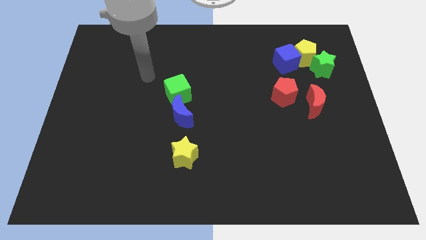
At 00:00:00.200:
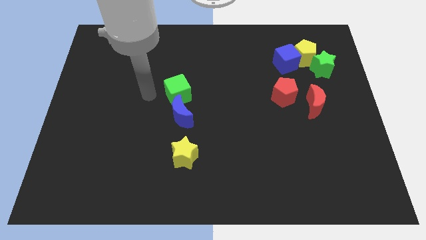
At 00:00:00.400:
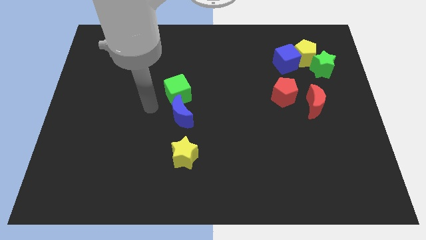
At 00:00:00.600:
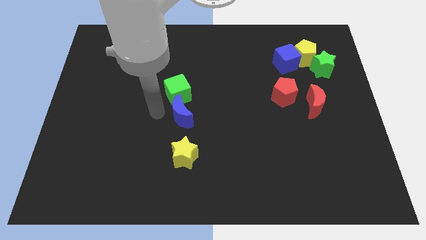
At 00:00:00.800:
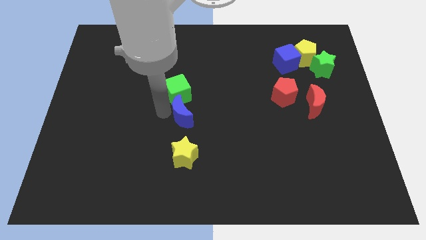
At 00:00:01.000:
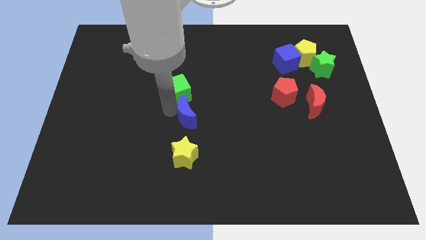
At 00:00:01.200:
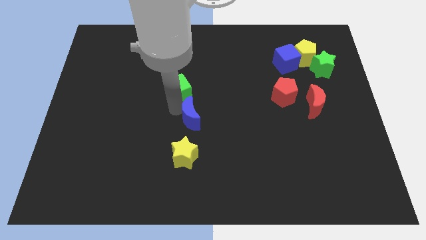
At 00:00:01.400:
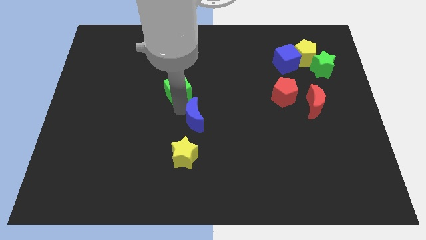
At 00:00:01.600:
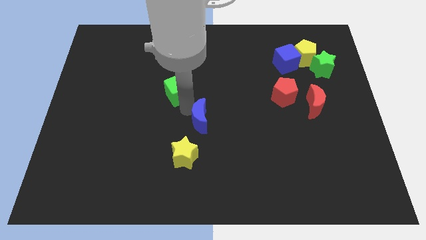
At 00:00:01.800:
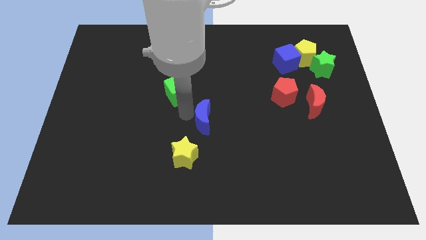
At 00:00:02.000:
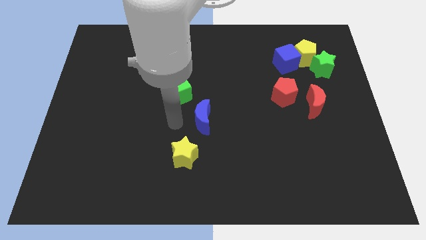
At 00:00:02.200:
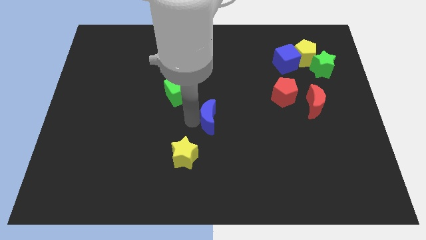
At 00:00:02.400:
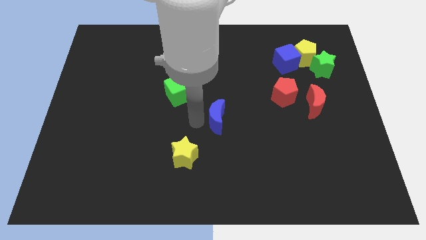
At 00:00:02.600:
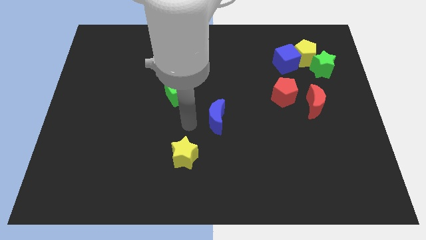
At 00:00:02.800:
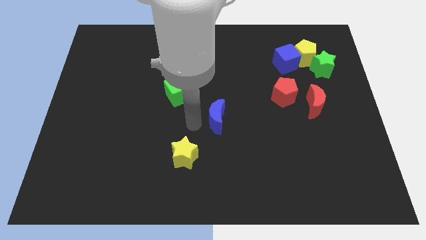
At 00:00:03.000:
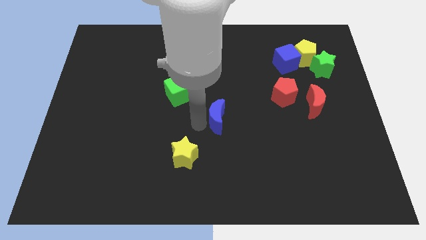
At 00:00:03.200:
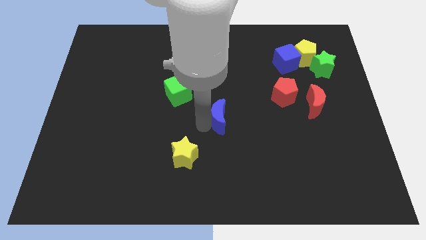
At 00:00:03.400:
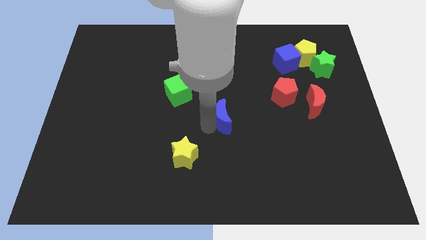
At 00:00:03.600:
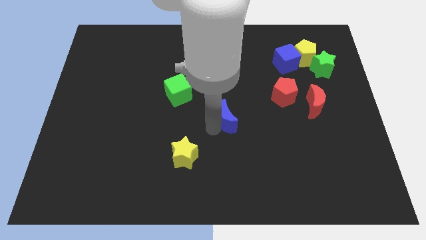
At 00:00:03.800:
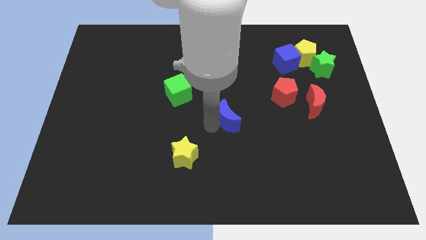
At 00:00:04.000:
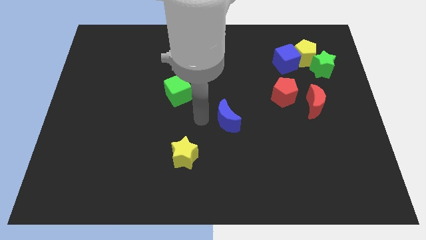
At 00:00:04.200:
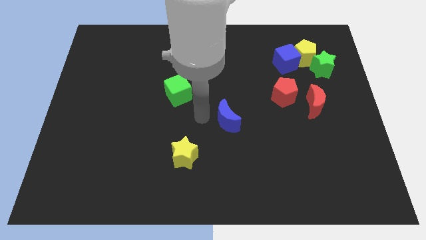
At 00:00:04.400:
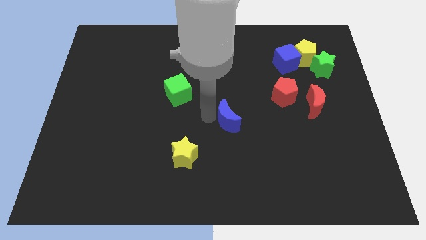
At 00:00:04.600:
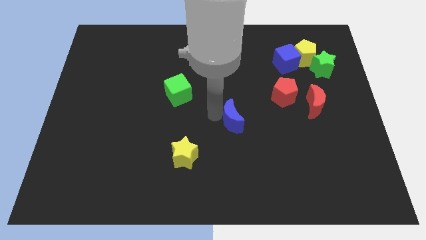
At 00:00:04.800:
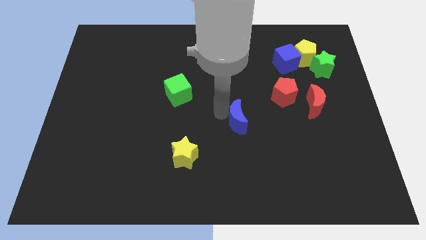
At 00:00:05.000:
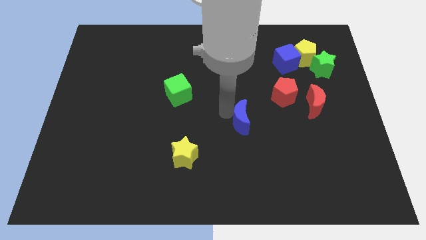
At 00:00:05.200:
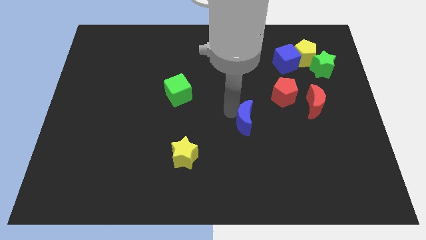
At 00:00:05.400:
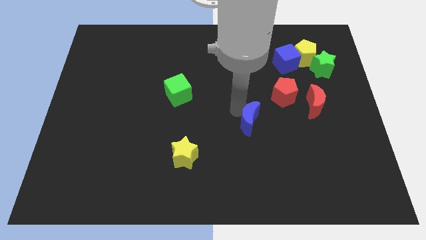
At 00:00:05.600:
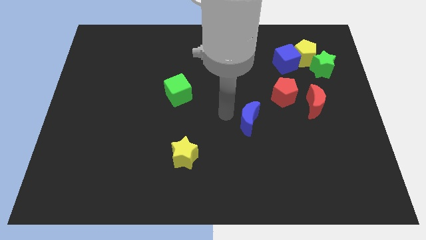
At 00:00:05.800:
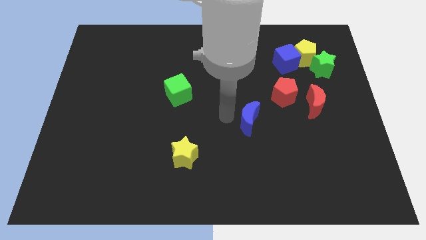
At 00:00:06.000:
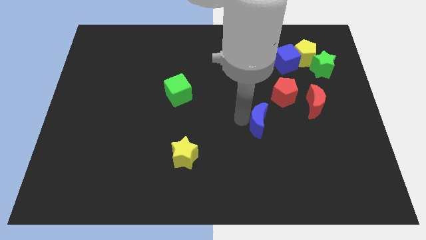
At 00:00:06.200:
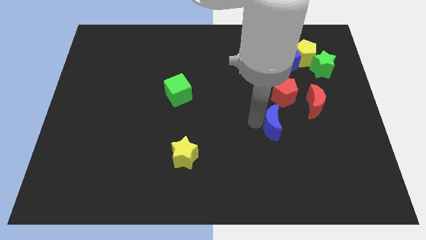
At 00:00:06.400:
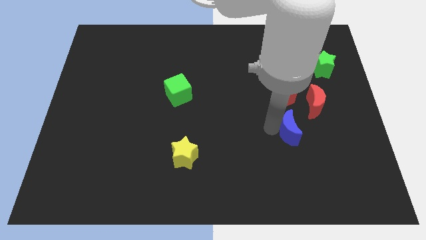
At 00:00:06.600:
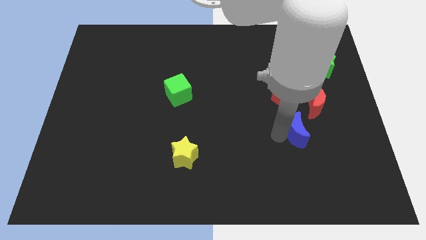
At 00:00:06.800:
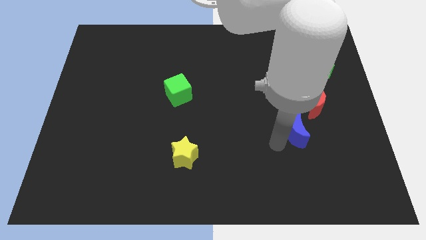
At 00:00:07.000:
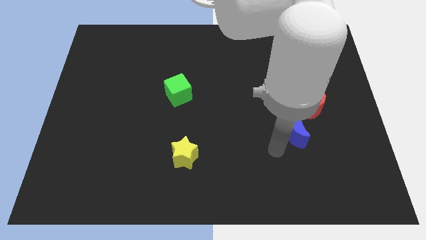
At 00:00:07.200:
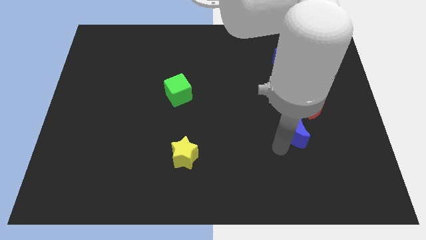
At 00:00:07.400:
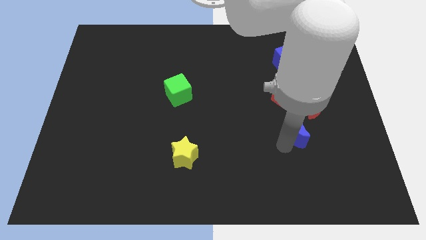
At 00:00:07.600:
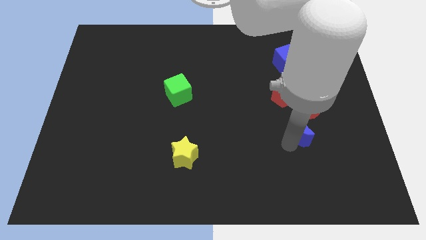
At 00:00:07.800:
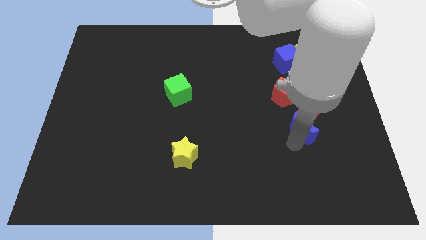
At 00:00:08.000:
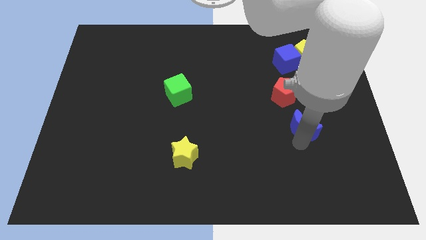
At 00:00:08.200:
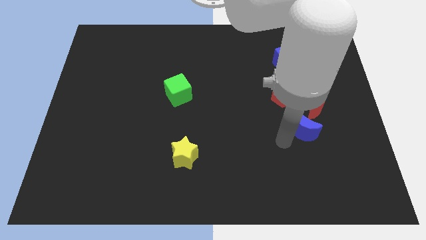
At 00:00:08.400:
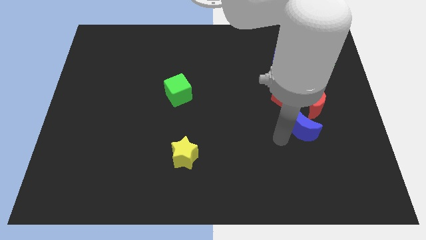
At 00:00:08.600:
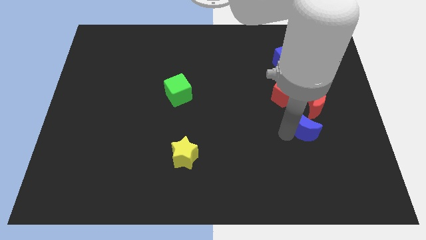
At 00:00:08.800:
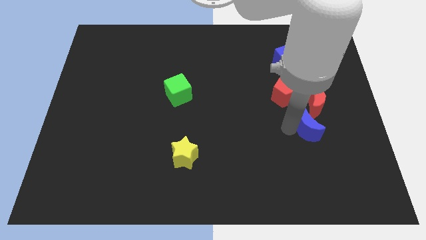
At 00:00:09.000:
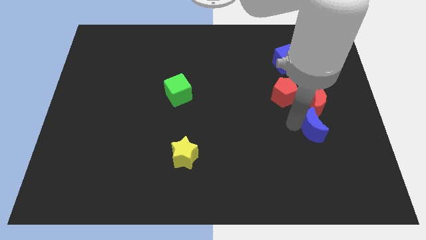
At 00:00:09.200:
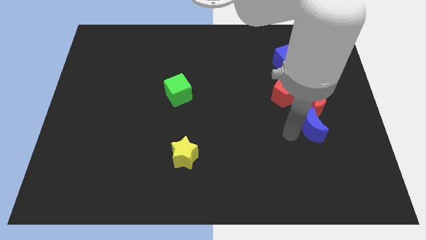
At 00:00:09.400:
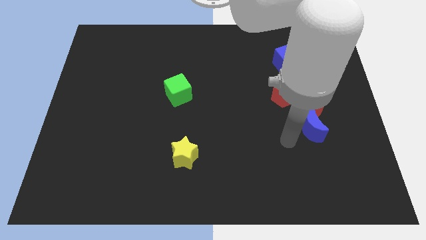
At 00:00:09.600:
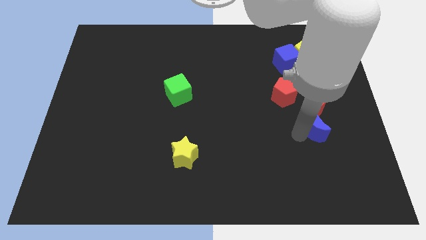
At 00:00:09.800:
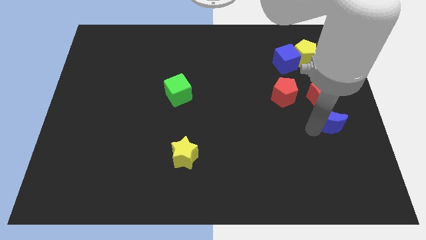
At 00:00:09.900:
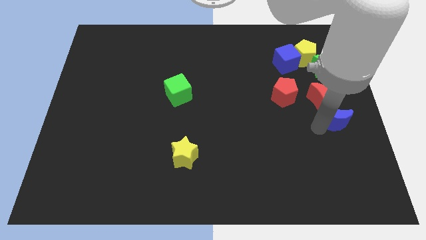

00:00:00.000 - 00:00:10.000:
move the blue moon to the center right

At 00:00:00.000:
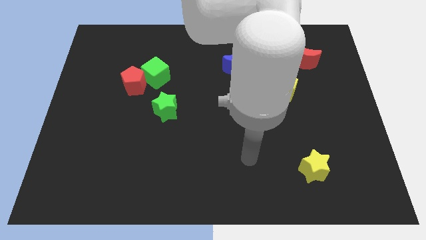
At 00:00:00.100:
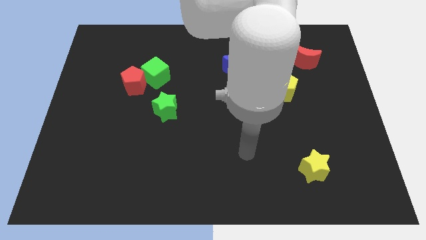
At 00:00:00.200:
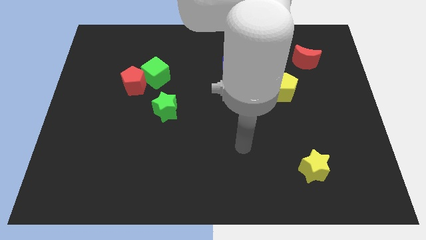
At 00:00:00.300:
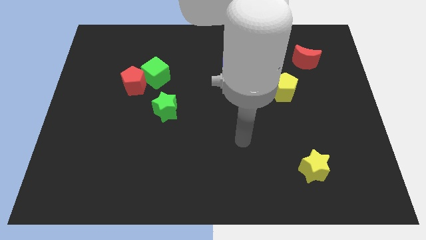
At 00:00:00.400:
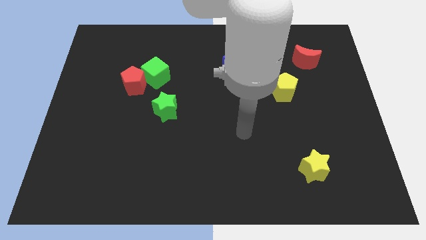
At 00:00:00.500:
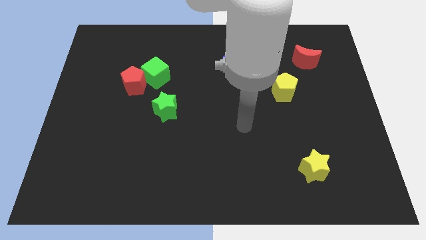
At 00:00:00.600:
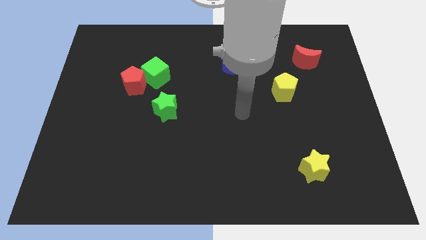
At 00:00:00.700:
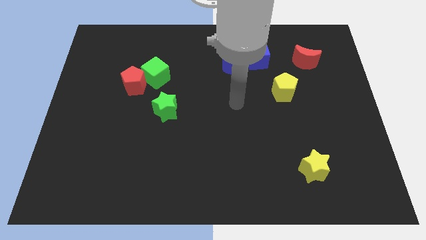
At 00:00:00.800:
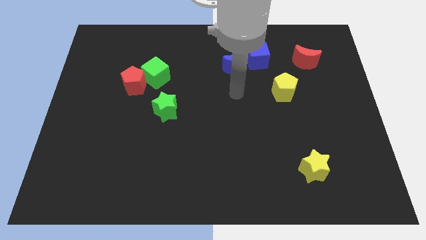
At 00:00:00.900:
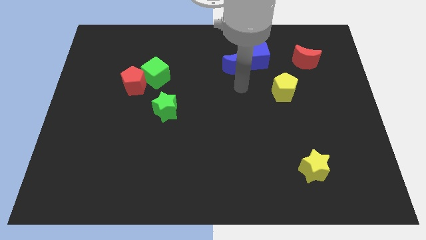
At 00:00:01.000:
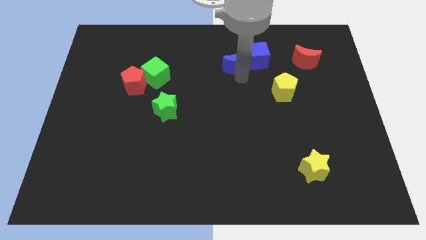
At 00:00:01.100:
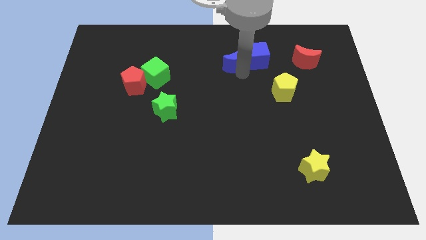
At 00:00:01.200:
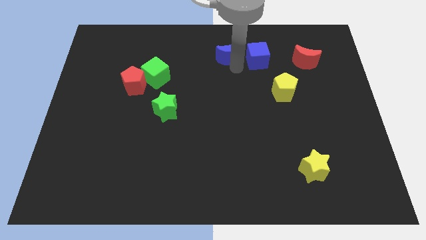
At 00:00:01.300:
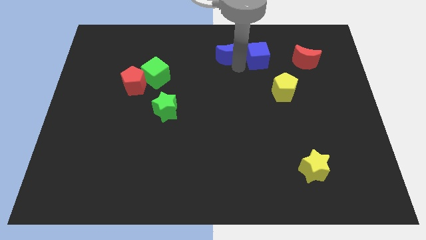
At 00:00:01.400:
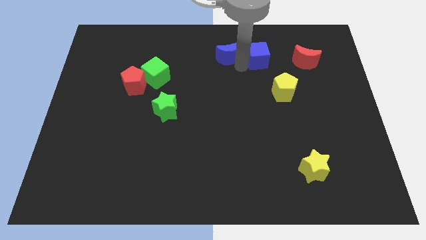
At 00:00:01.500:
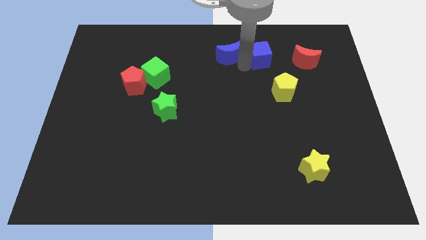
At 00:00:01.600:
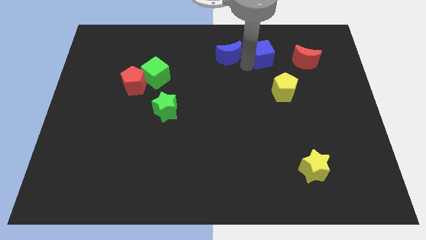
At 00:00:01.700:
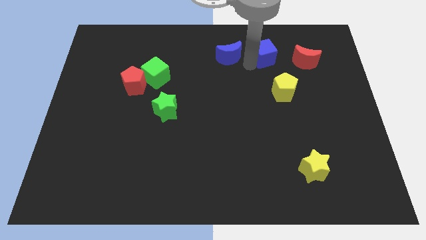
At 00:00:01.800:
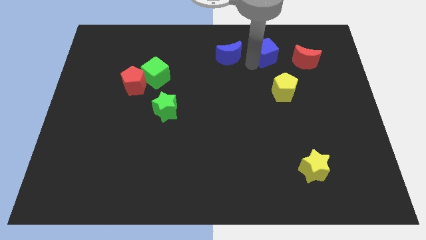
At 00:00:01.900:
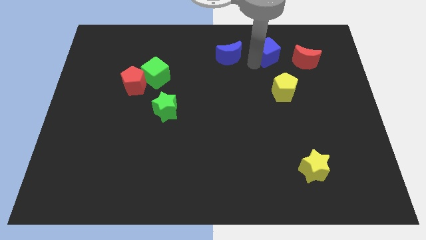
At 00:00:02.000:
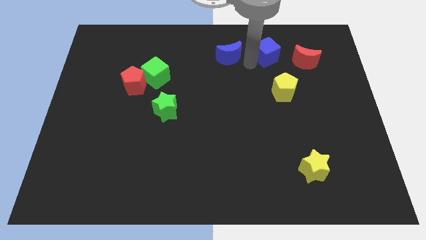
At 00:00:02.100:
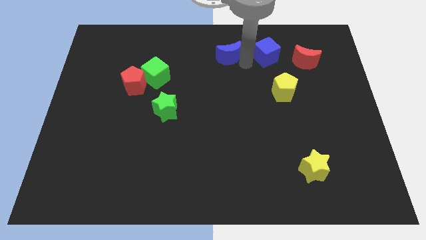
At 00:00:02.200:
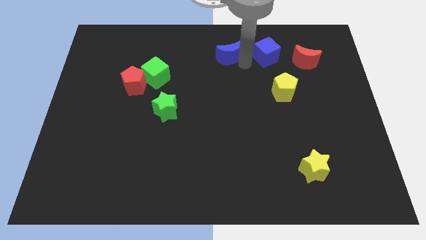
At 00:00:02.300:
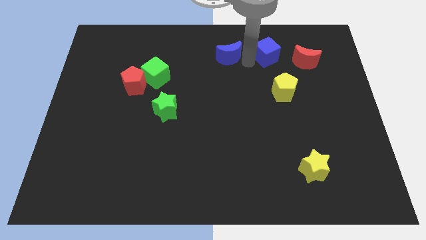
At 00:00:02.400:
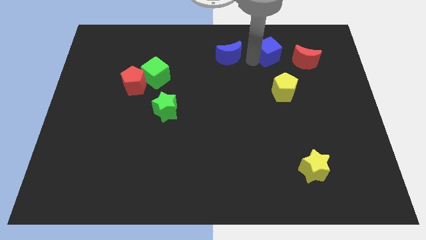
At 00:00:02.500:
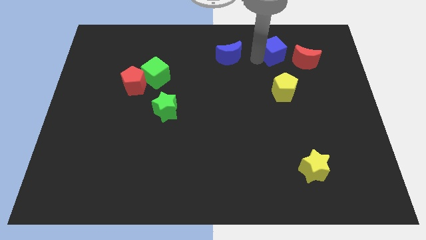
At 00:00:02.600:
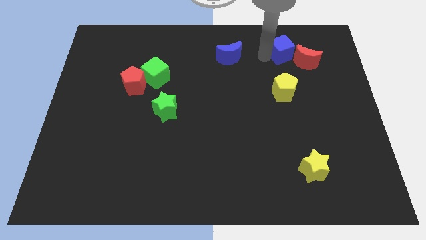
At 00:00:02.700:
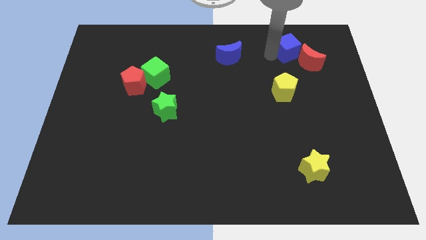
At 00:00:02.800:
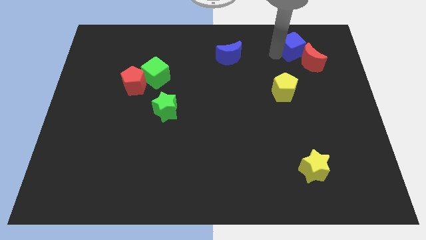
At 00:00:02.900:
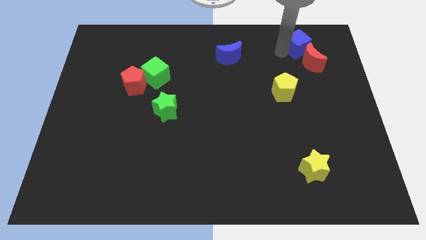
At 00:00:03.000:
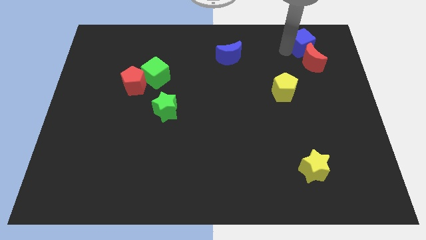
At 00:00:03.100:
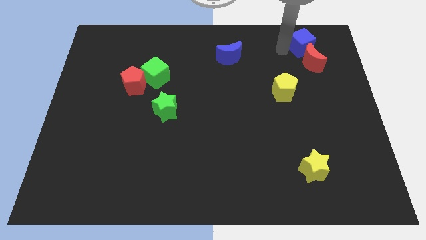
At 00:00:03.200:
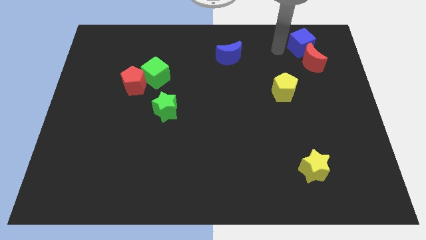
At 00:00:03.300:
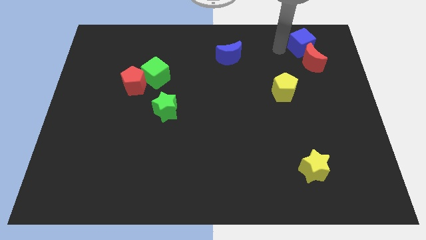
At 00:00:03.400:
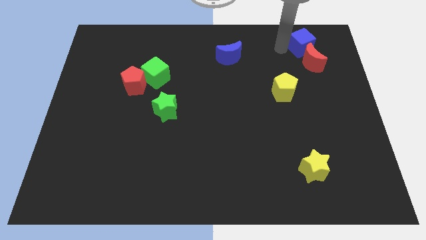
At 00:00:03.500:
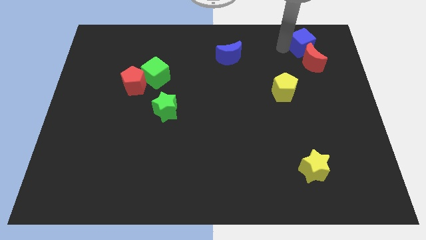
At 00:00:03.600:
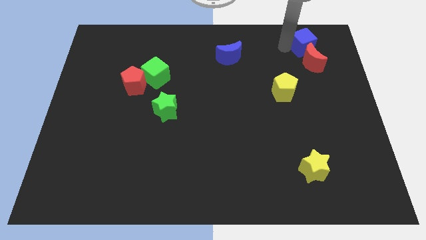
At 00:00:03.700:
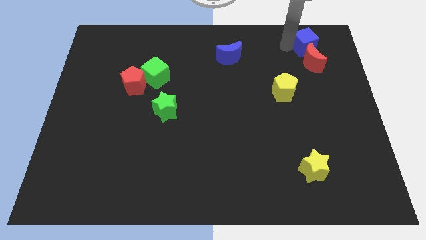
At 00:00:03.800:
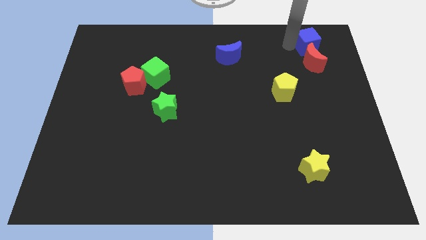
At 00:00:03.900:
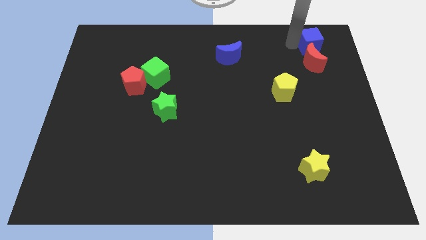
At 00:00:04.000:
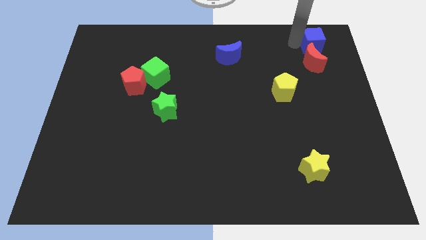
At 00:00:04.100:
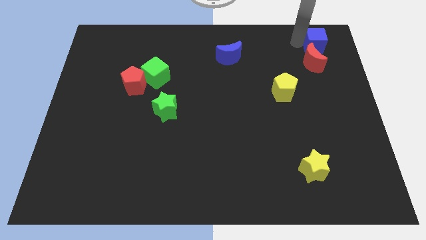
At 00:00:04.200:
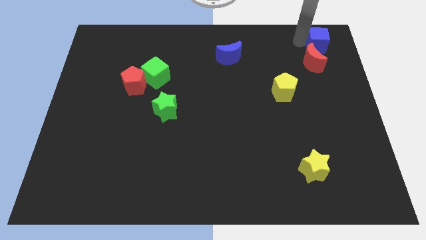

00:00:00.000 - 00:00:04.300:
slide the blue cube to the top right corner
